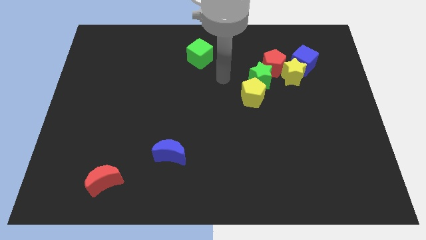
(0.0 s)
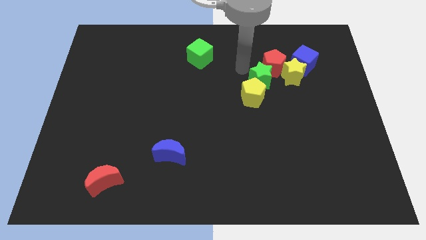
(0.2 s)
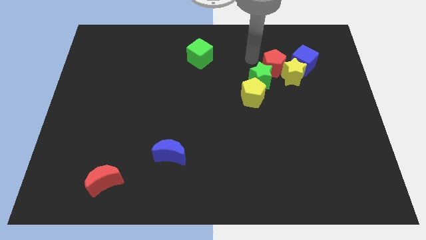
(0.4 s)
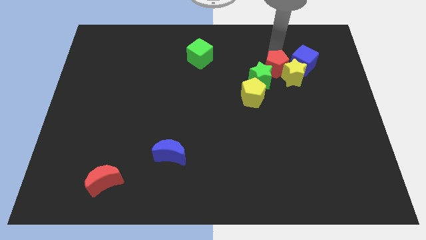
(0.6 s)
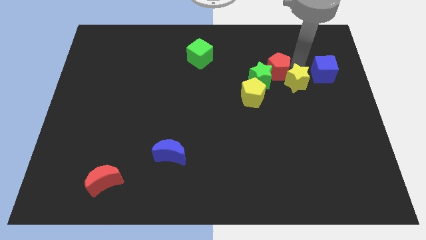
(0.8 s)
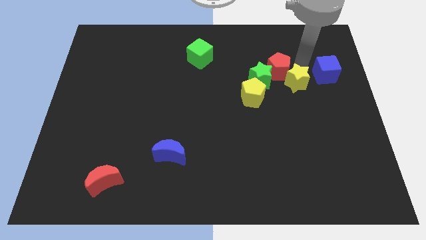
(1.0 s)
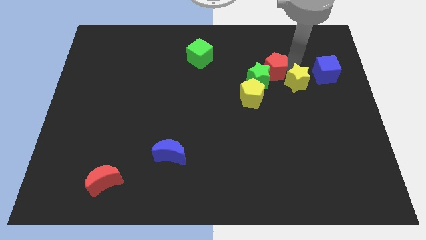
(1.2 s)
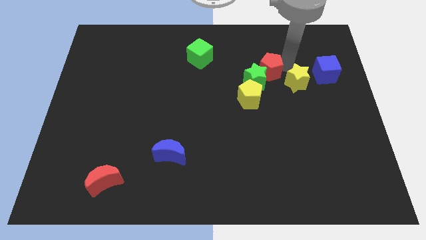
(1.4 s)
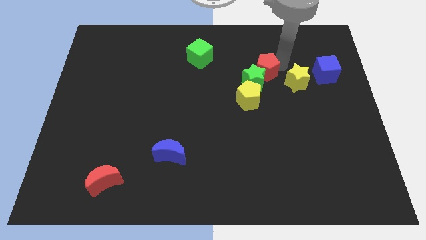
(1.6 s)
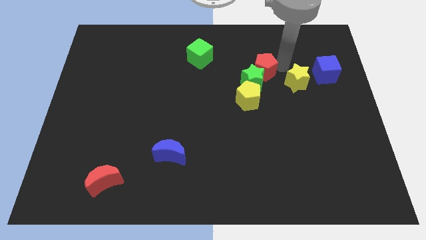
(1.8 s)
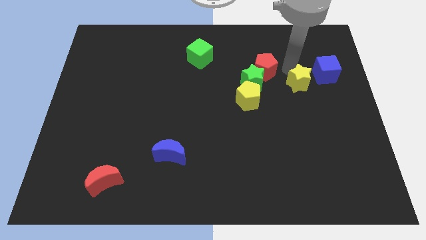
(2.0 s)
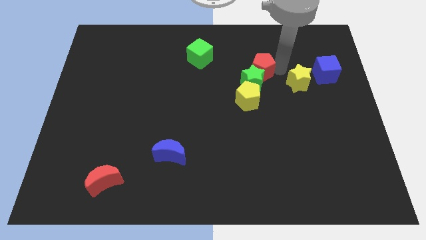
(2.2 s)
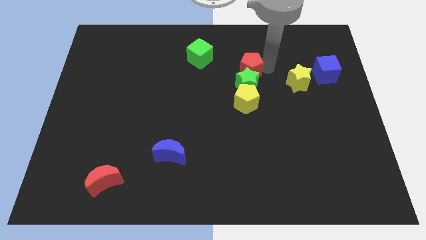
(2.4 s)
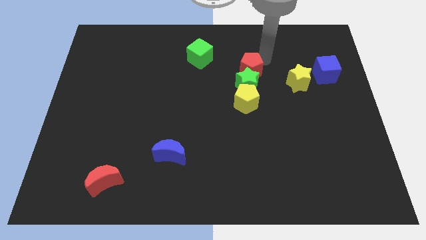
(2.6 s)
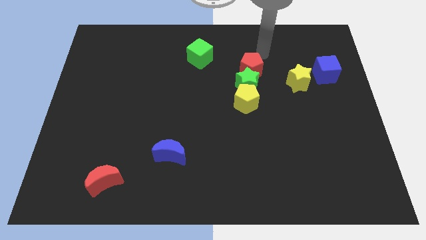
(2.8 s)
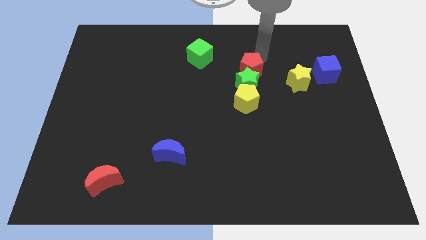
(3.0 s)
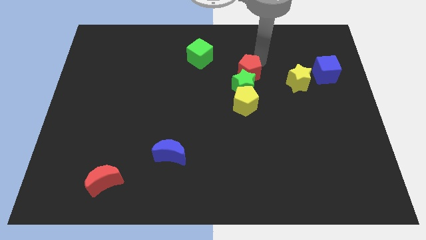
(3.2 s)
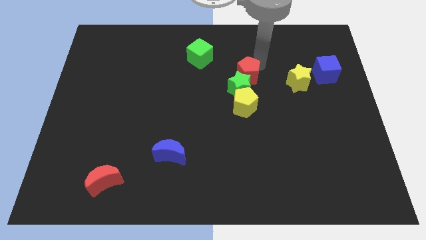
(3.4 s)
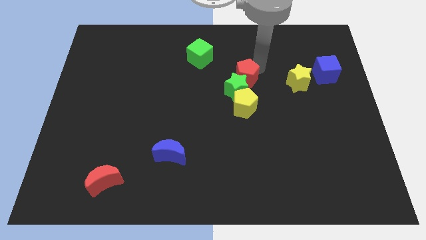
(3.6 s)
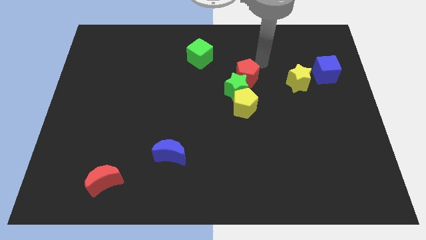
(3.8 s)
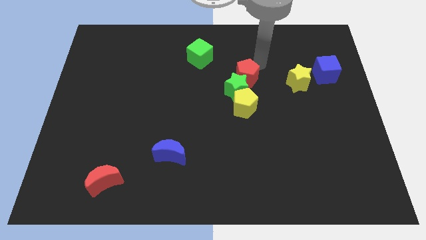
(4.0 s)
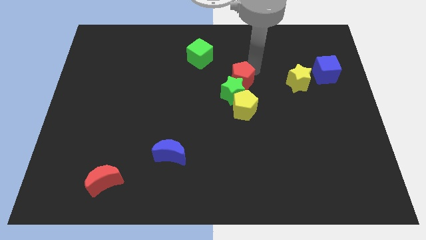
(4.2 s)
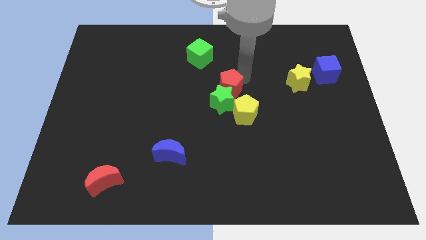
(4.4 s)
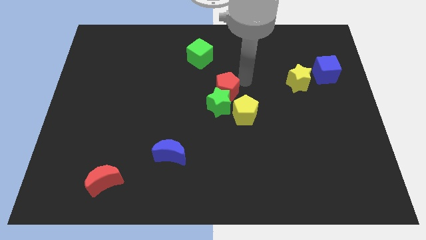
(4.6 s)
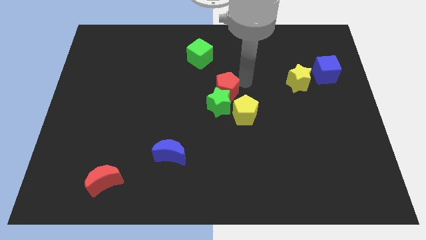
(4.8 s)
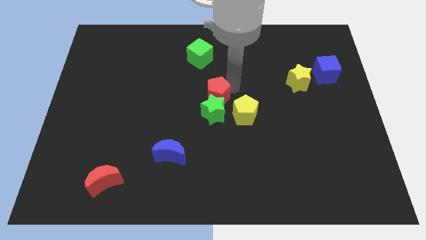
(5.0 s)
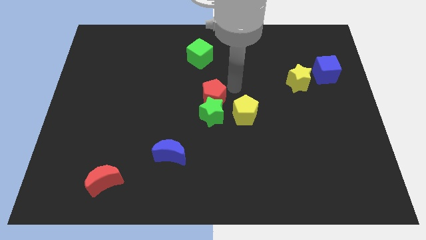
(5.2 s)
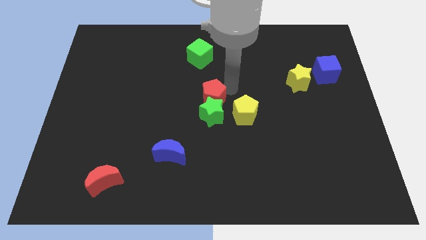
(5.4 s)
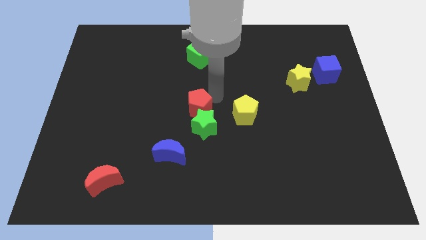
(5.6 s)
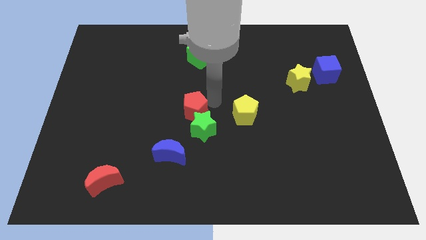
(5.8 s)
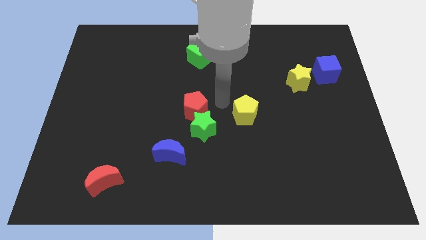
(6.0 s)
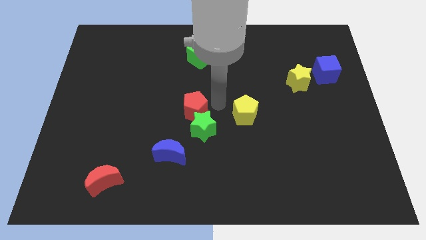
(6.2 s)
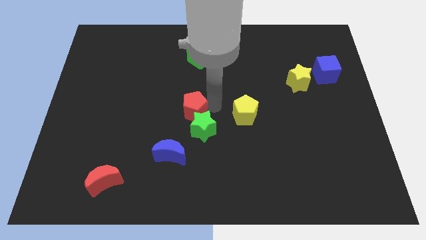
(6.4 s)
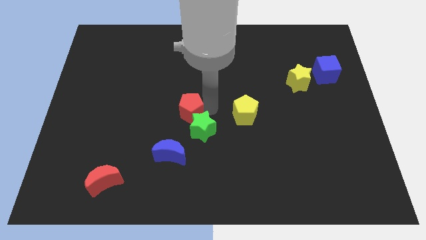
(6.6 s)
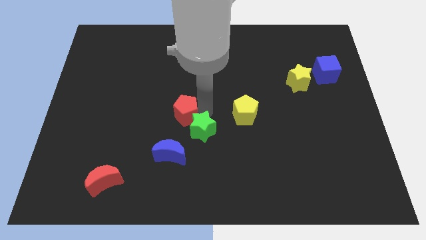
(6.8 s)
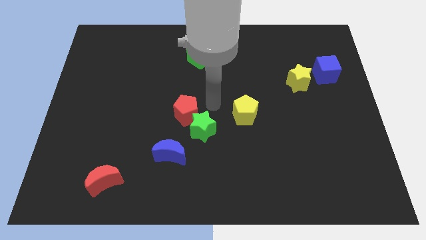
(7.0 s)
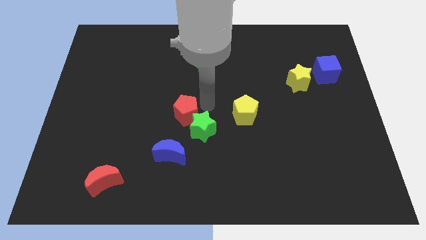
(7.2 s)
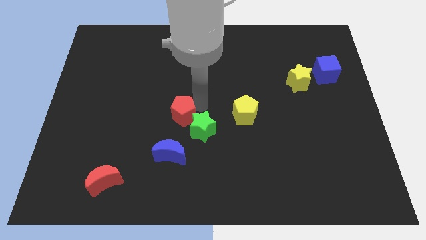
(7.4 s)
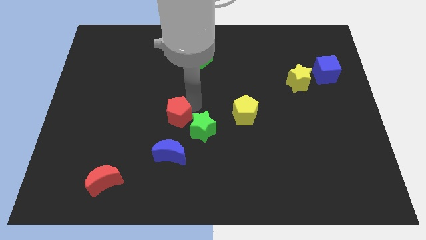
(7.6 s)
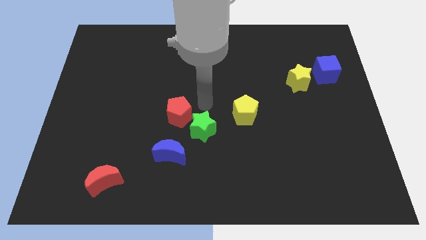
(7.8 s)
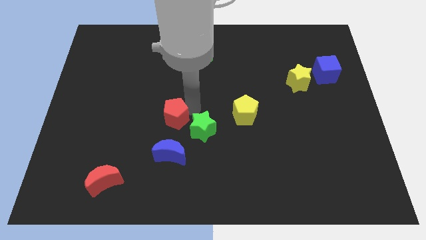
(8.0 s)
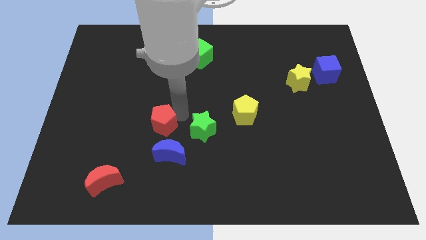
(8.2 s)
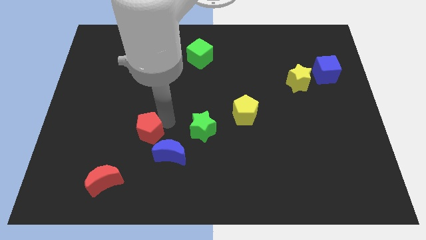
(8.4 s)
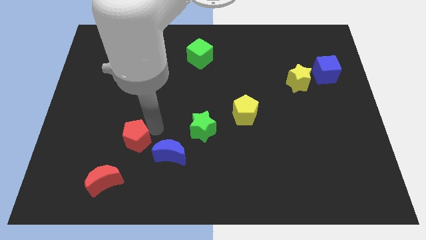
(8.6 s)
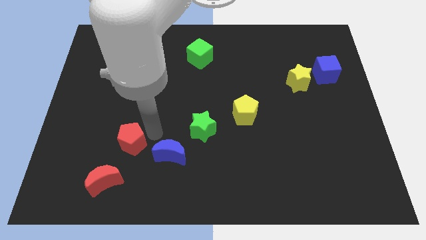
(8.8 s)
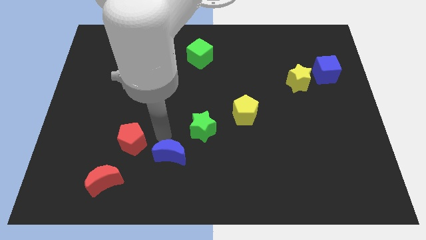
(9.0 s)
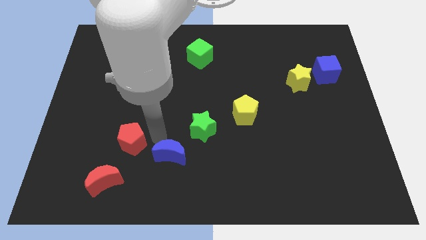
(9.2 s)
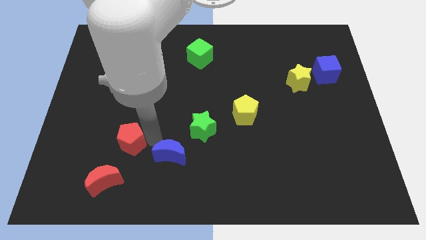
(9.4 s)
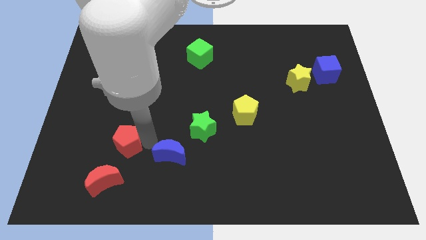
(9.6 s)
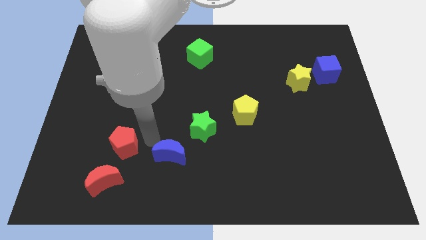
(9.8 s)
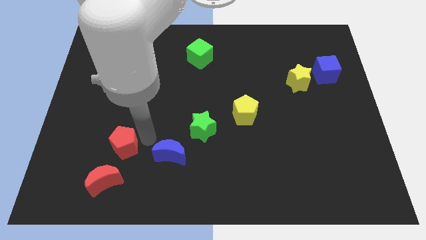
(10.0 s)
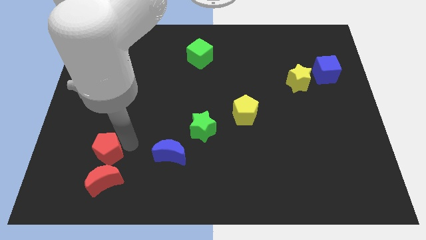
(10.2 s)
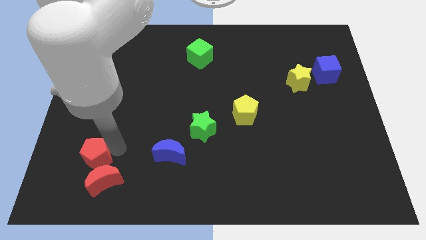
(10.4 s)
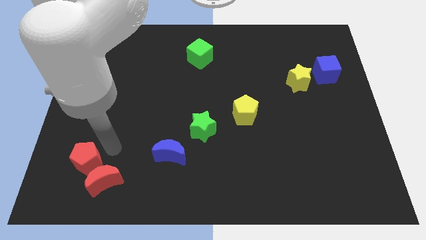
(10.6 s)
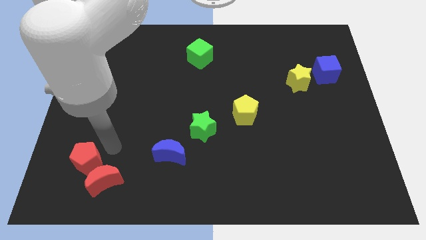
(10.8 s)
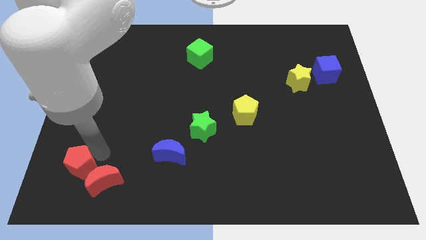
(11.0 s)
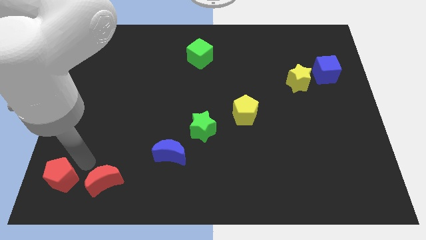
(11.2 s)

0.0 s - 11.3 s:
slide the red pentagon to the bottom left of the board
